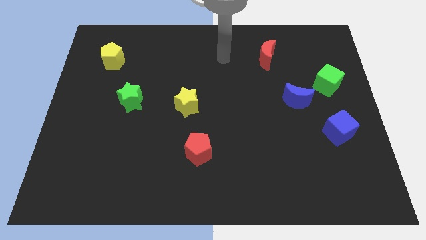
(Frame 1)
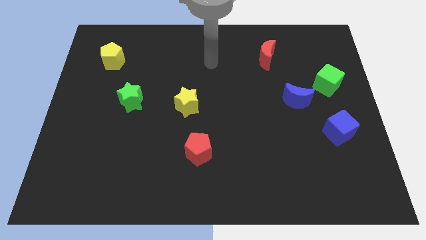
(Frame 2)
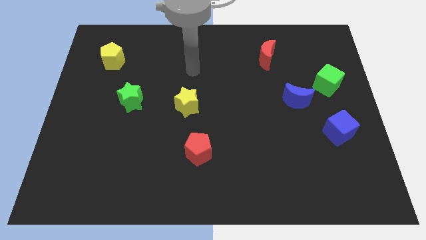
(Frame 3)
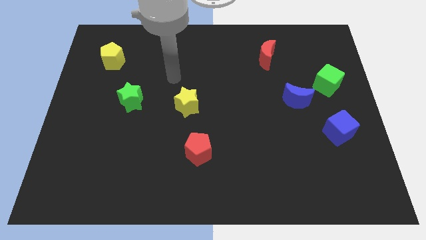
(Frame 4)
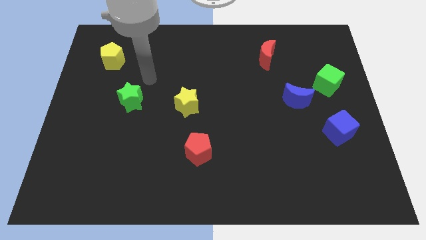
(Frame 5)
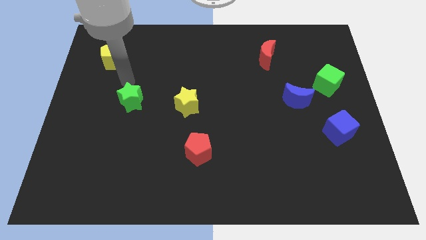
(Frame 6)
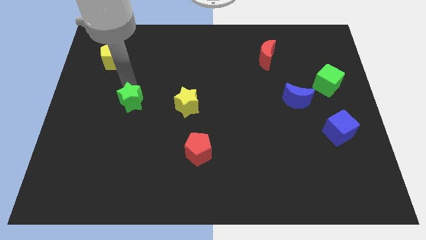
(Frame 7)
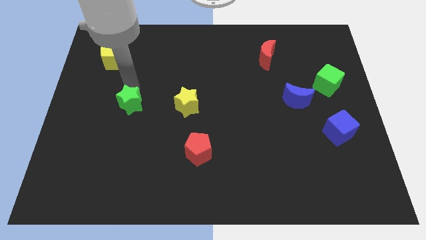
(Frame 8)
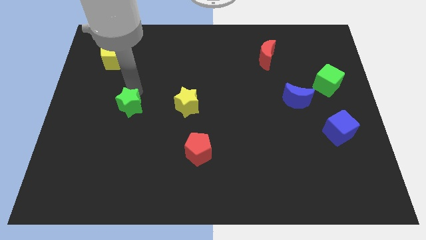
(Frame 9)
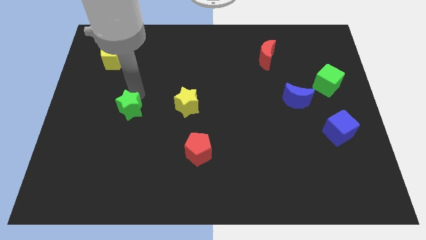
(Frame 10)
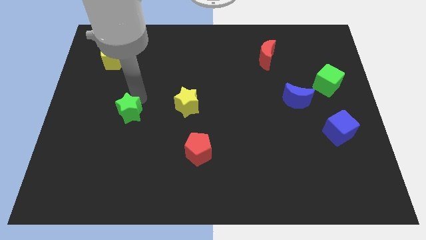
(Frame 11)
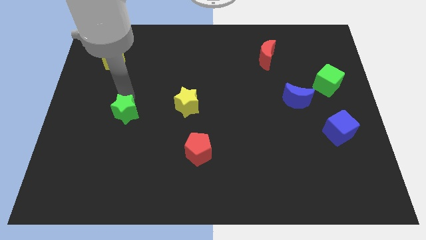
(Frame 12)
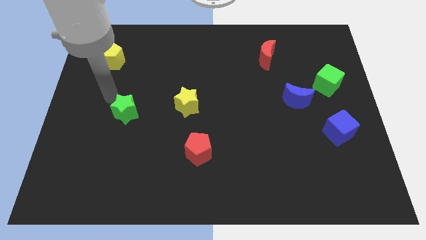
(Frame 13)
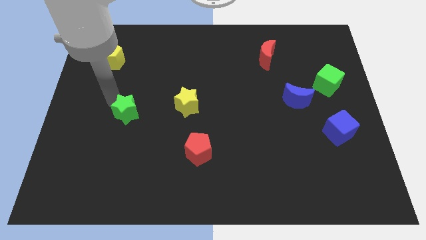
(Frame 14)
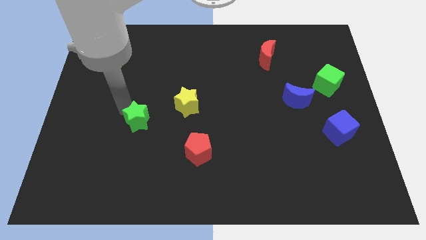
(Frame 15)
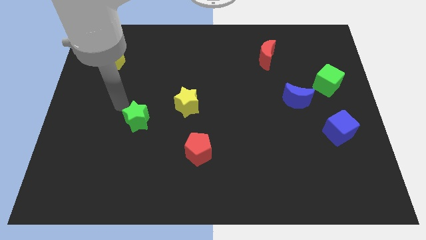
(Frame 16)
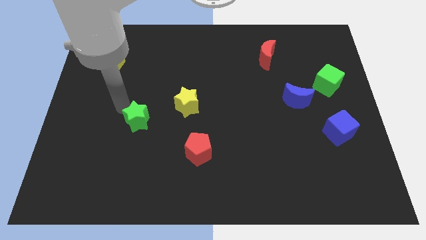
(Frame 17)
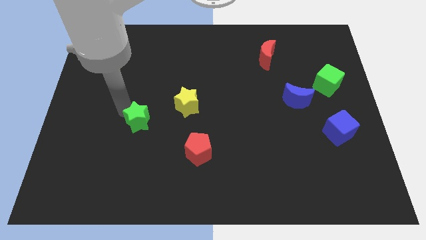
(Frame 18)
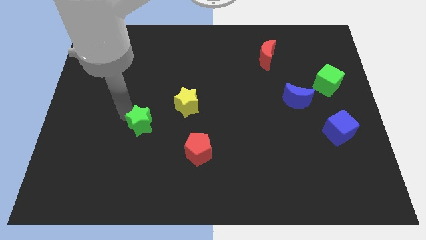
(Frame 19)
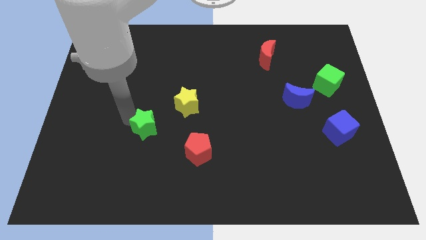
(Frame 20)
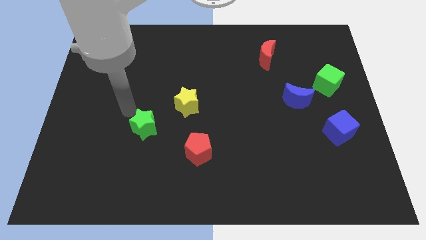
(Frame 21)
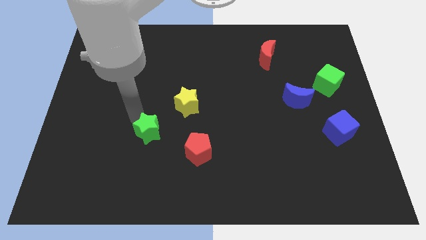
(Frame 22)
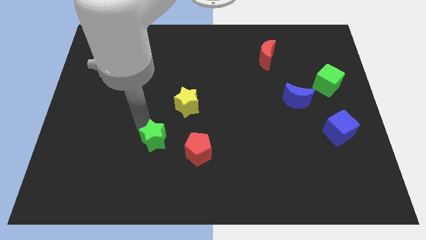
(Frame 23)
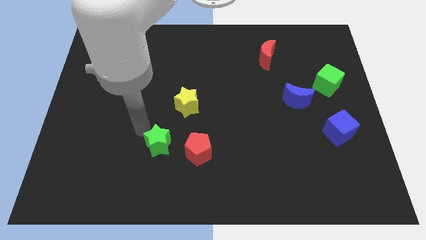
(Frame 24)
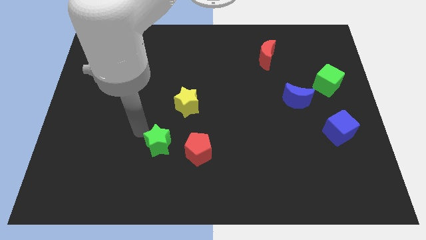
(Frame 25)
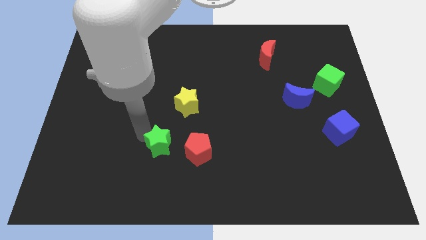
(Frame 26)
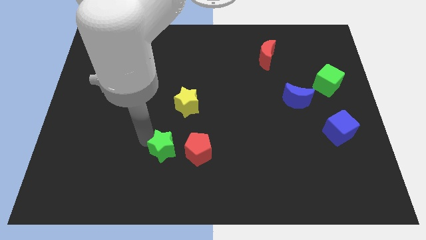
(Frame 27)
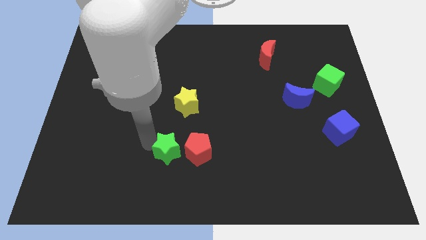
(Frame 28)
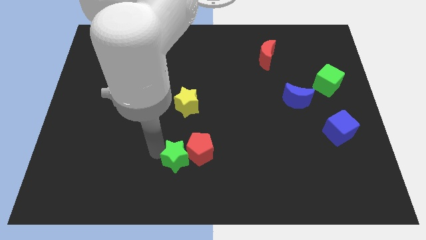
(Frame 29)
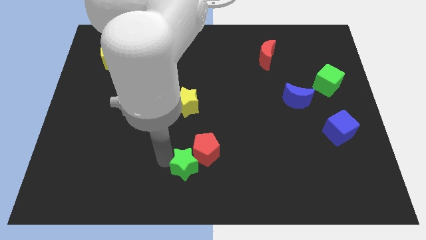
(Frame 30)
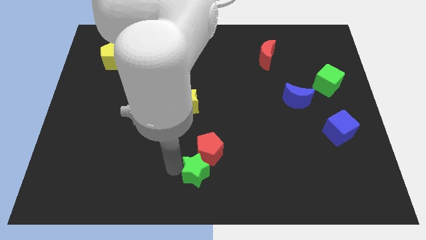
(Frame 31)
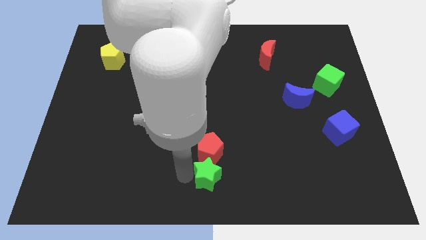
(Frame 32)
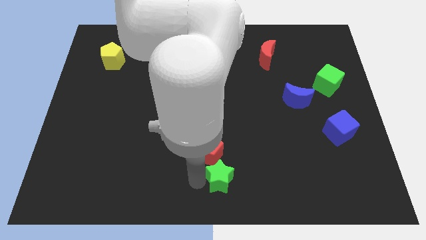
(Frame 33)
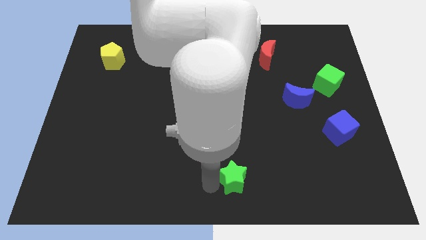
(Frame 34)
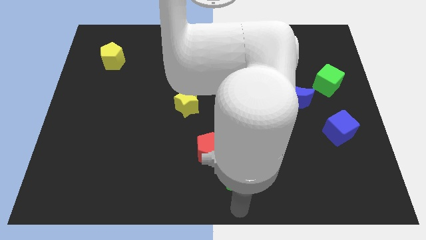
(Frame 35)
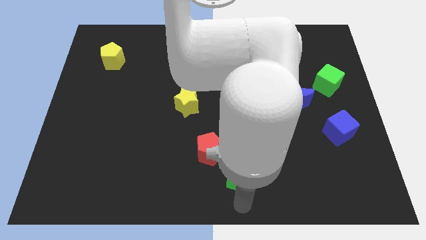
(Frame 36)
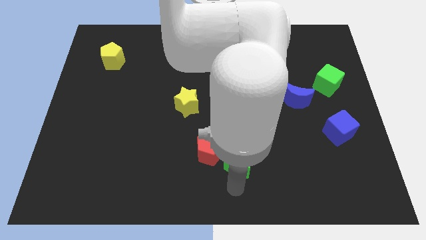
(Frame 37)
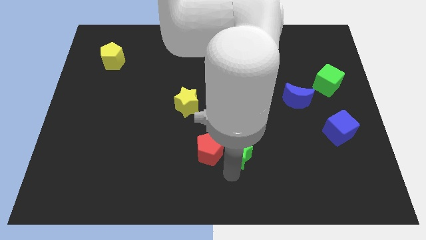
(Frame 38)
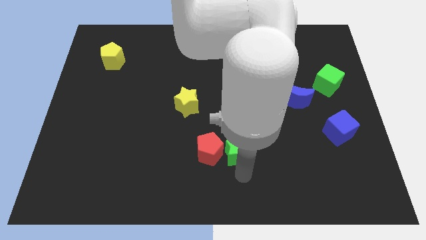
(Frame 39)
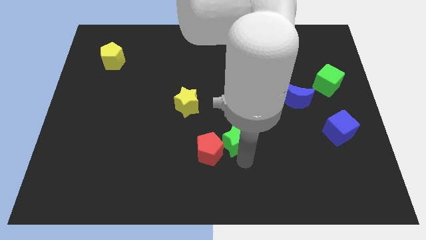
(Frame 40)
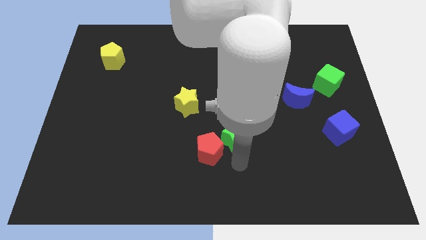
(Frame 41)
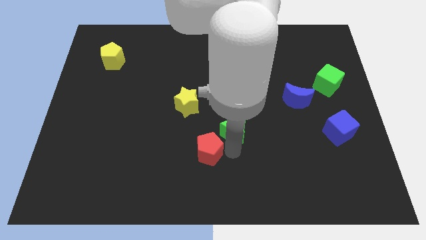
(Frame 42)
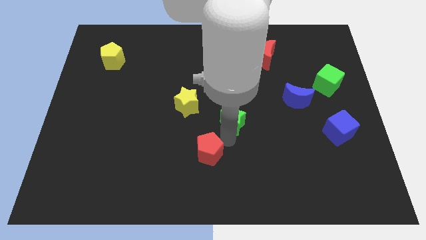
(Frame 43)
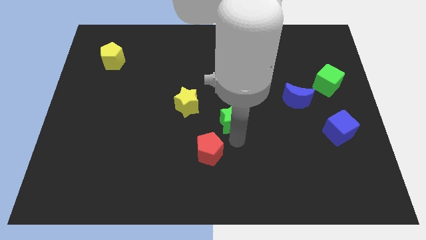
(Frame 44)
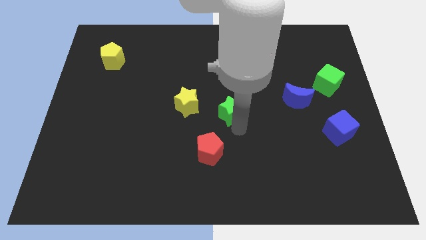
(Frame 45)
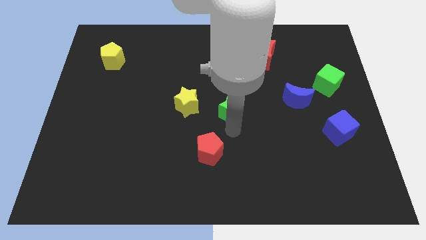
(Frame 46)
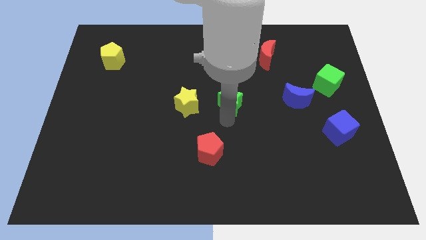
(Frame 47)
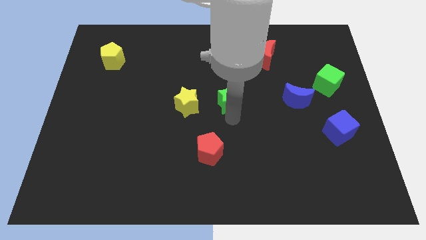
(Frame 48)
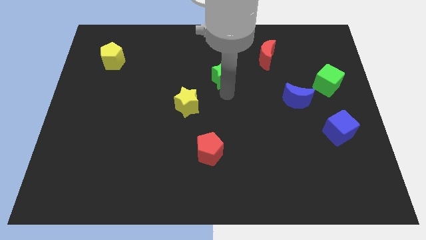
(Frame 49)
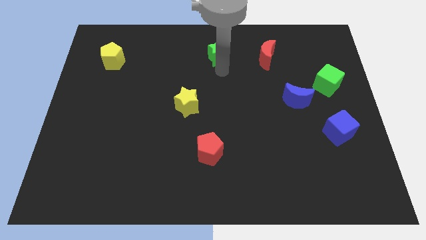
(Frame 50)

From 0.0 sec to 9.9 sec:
move the green star to the top

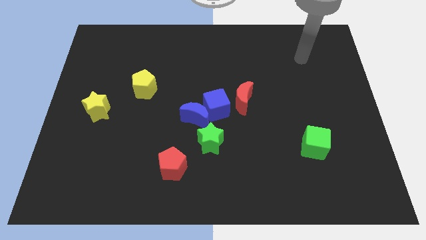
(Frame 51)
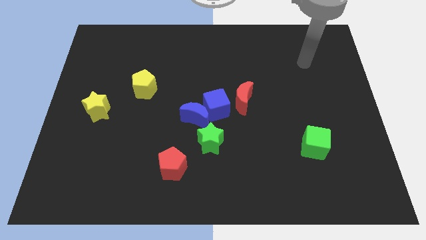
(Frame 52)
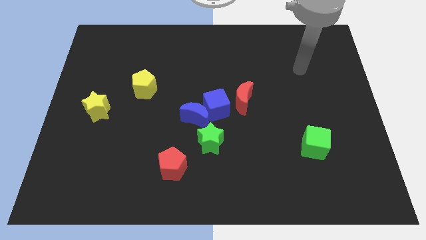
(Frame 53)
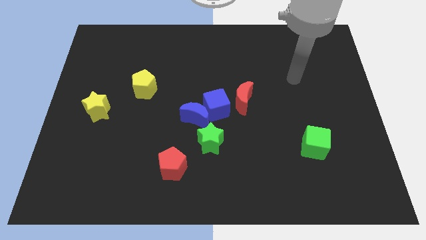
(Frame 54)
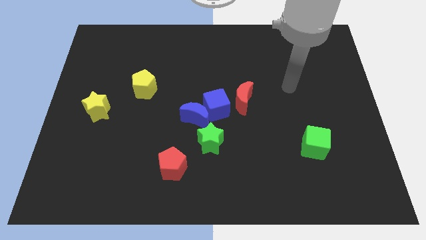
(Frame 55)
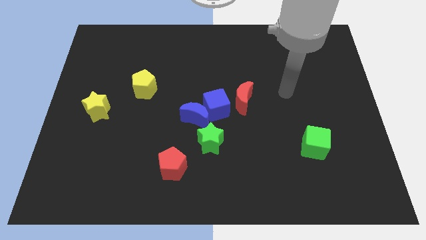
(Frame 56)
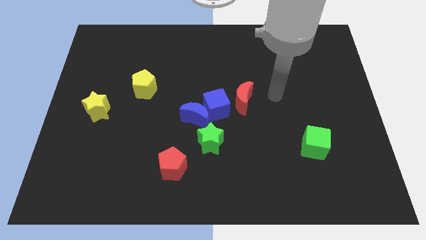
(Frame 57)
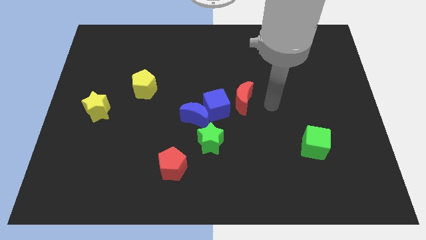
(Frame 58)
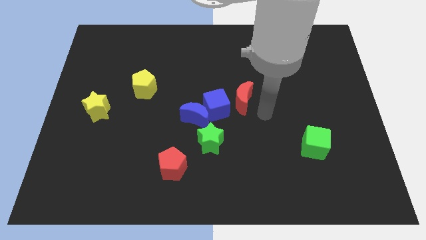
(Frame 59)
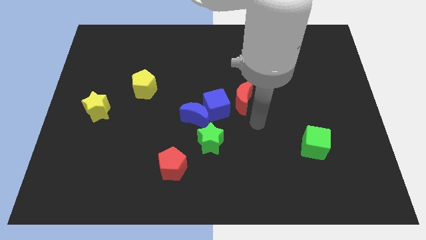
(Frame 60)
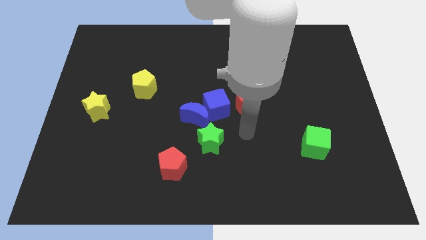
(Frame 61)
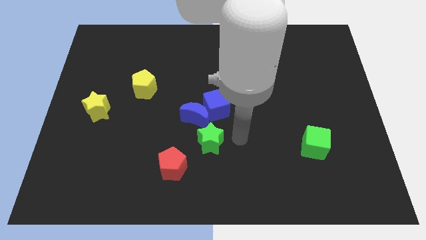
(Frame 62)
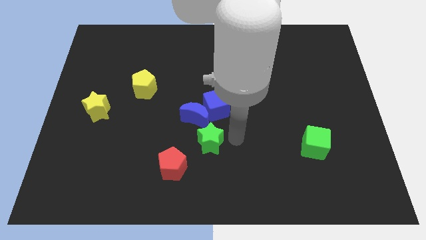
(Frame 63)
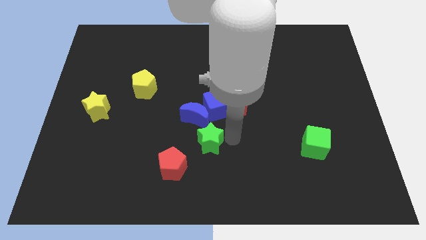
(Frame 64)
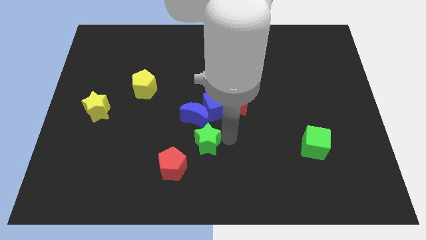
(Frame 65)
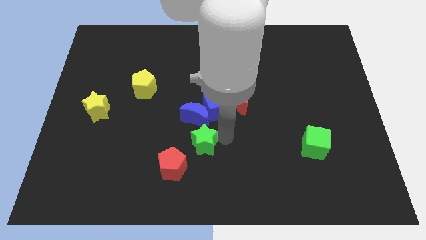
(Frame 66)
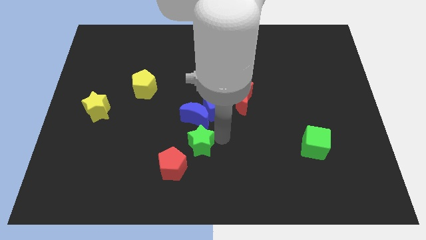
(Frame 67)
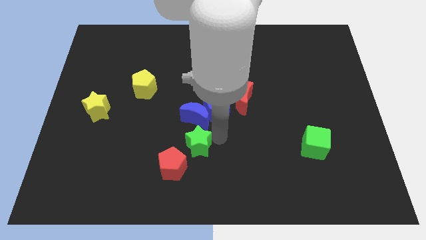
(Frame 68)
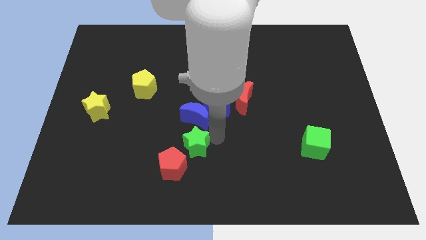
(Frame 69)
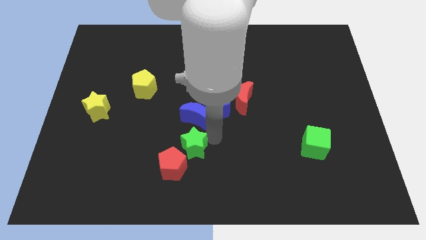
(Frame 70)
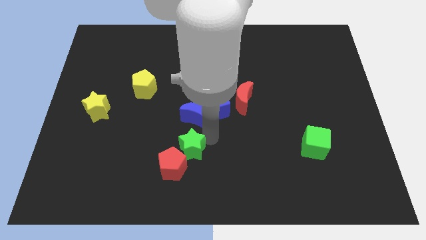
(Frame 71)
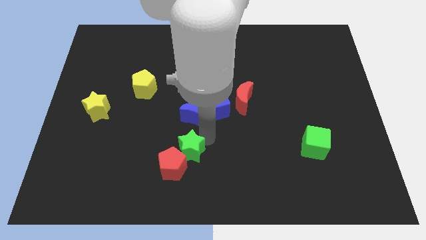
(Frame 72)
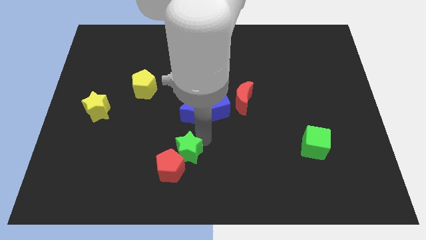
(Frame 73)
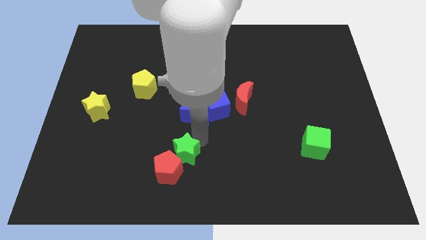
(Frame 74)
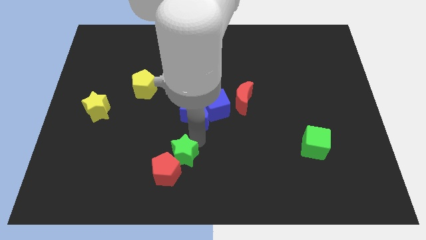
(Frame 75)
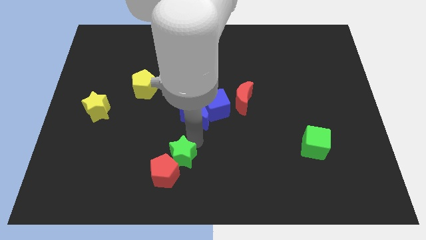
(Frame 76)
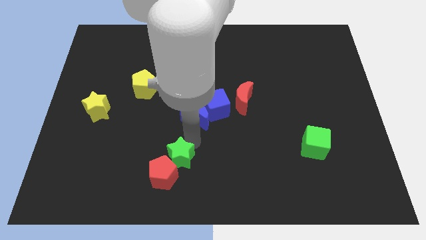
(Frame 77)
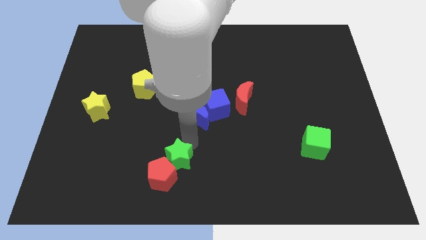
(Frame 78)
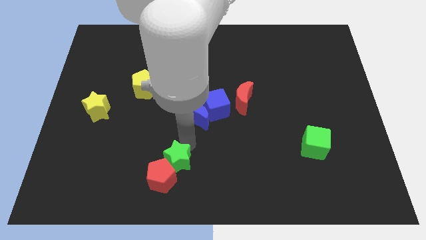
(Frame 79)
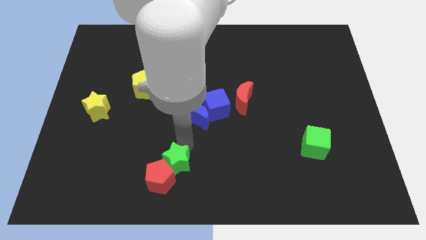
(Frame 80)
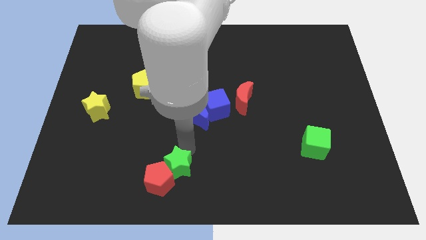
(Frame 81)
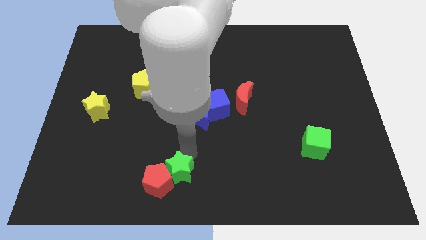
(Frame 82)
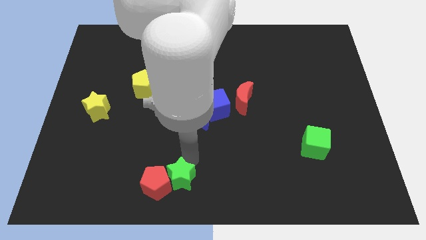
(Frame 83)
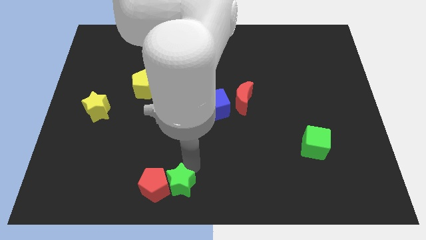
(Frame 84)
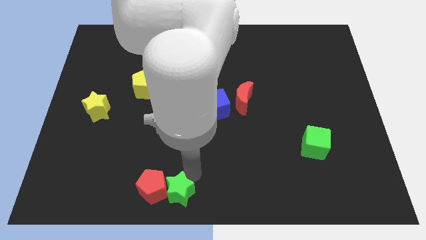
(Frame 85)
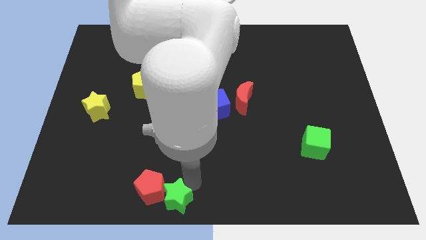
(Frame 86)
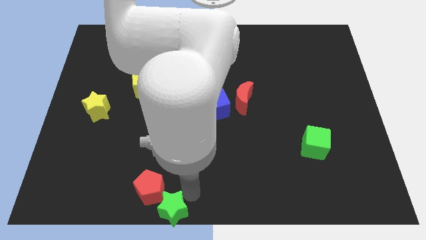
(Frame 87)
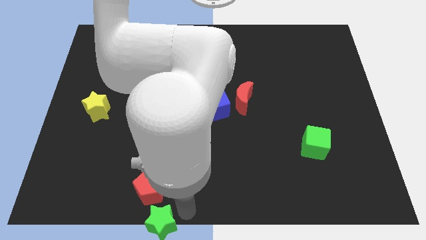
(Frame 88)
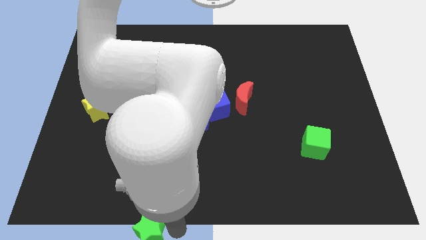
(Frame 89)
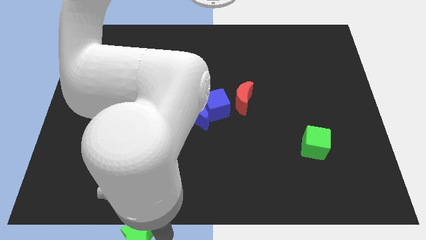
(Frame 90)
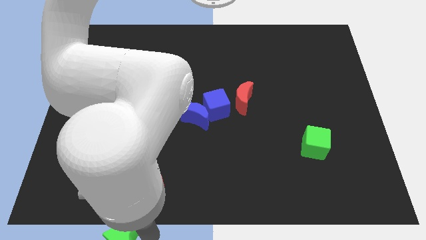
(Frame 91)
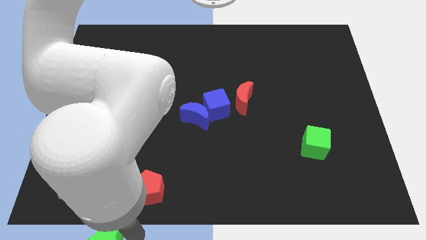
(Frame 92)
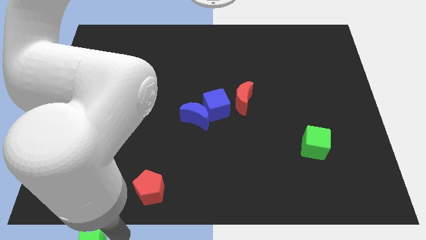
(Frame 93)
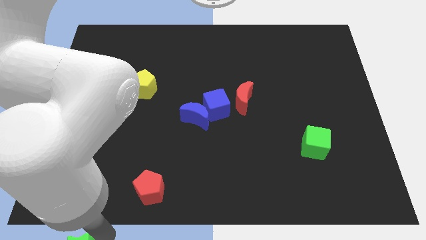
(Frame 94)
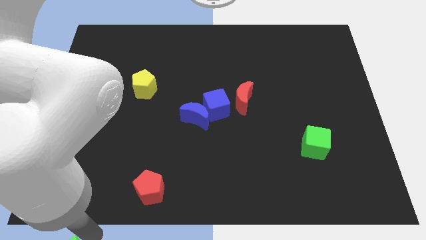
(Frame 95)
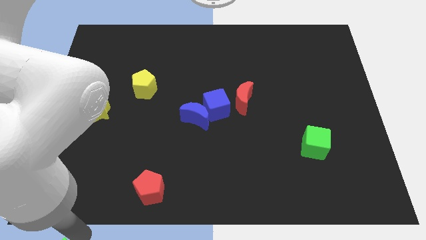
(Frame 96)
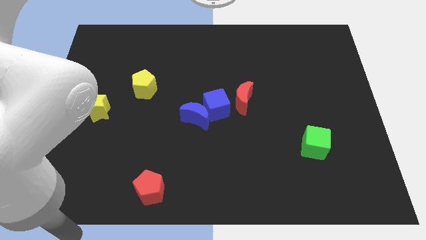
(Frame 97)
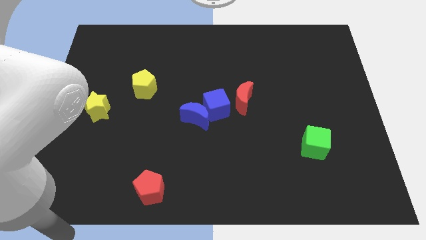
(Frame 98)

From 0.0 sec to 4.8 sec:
slide the green star to the bottom left of the board
